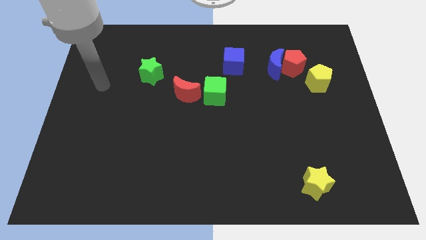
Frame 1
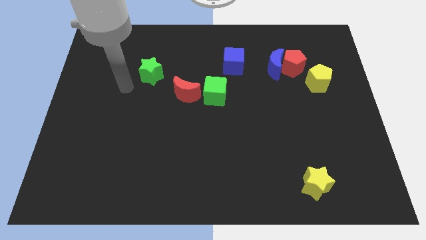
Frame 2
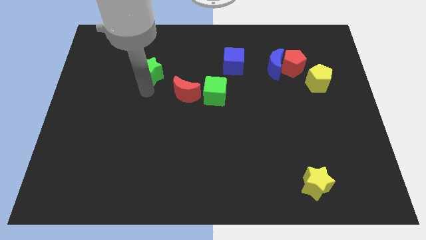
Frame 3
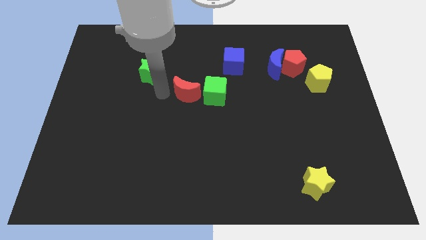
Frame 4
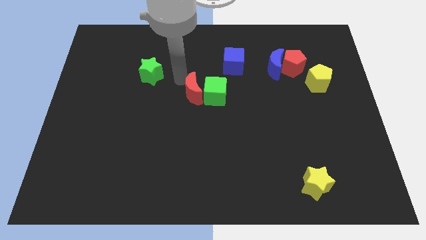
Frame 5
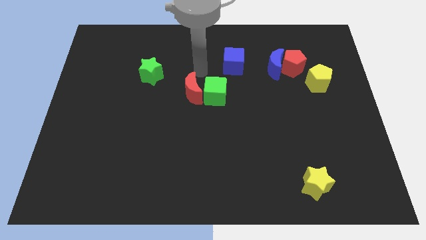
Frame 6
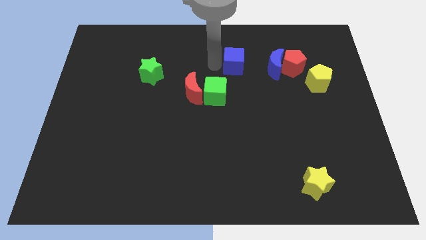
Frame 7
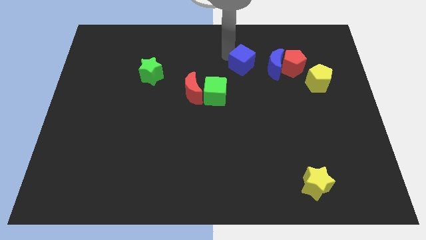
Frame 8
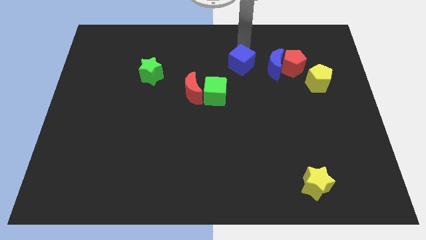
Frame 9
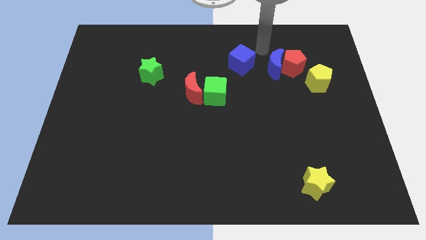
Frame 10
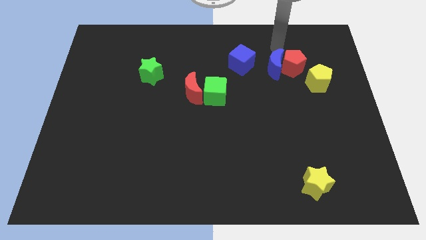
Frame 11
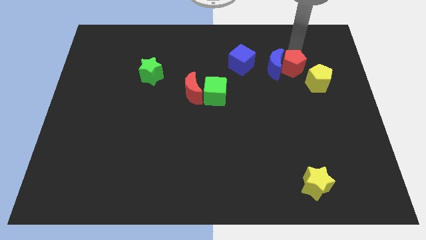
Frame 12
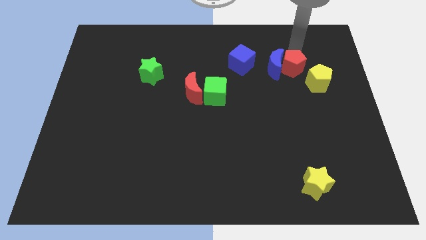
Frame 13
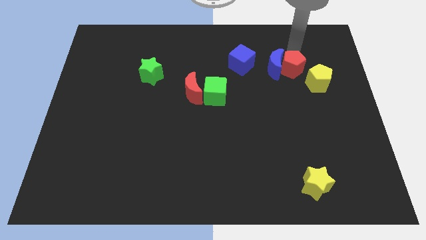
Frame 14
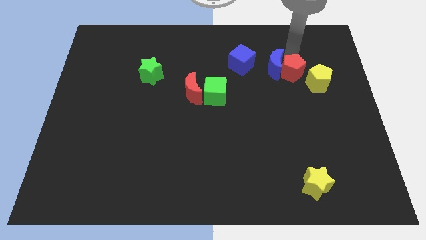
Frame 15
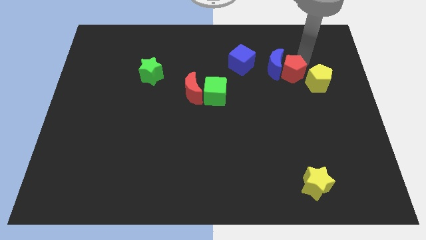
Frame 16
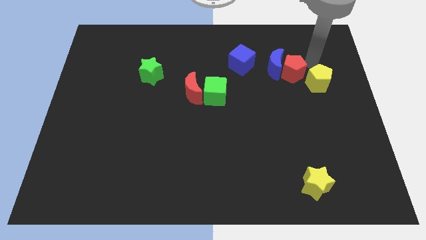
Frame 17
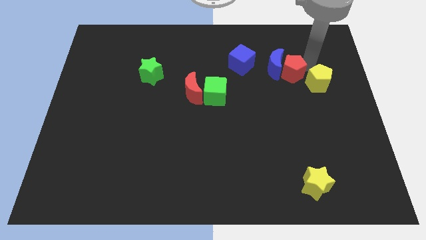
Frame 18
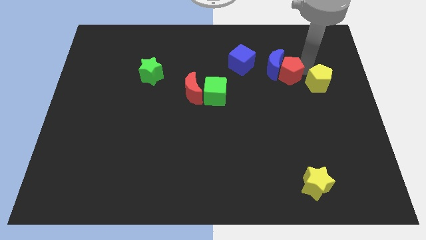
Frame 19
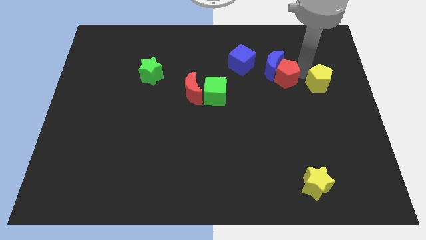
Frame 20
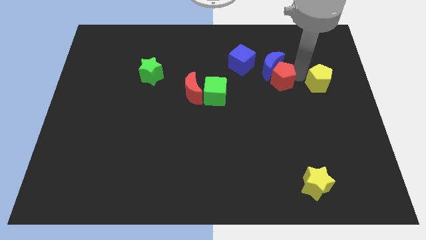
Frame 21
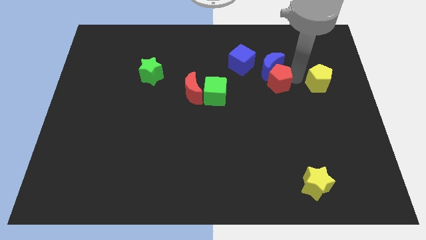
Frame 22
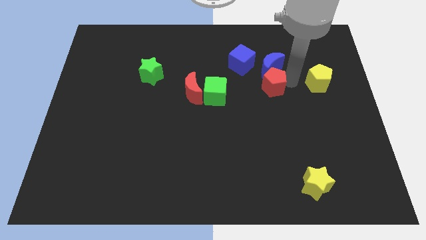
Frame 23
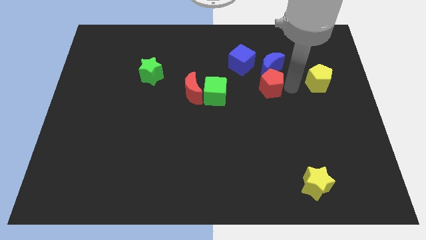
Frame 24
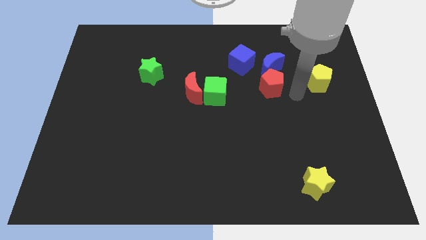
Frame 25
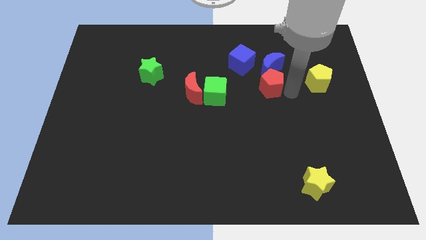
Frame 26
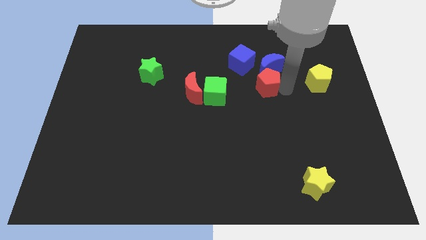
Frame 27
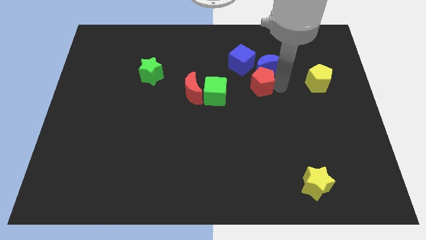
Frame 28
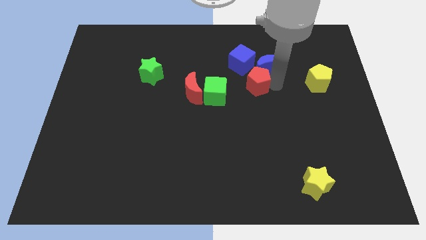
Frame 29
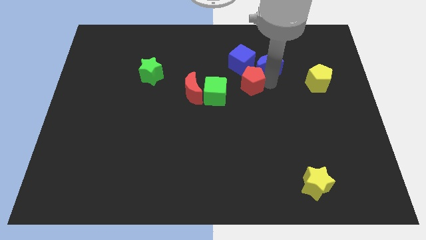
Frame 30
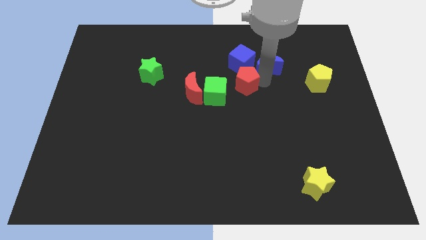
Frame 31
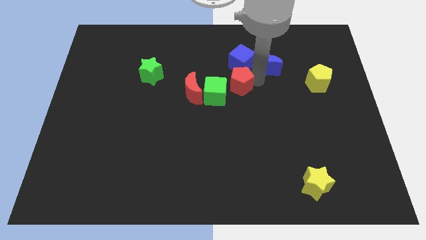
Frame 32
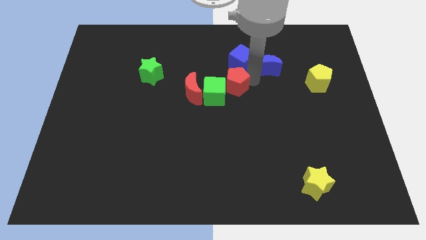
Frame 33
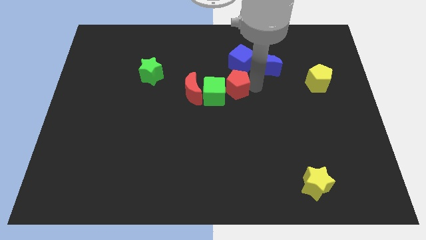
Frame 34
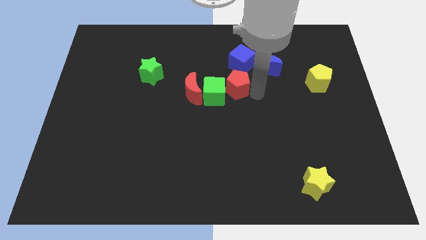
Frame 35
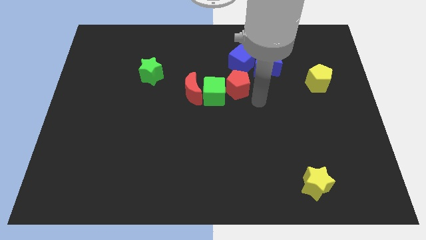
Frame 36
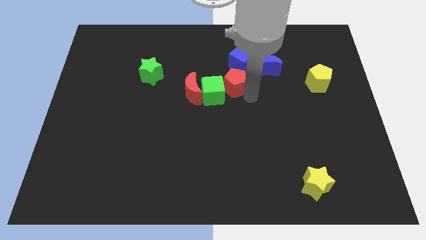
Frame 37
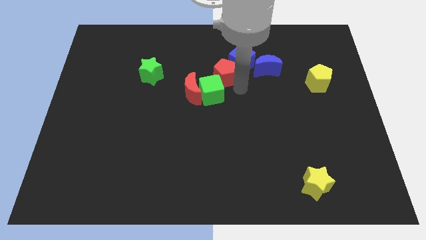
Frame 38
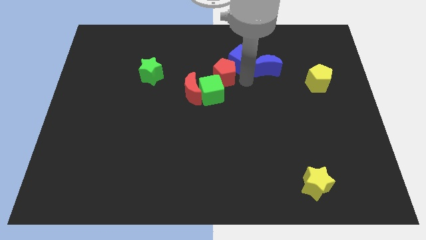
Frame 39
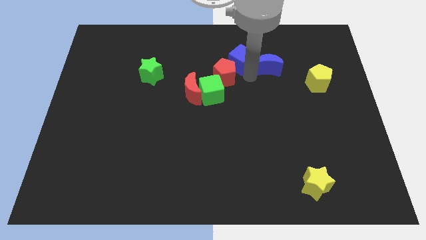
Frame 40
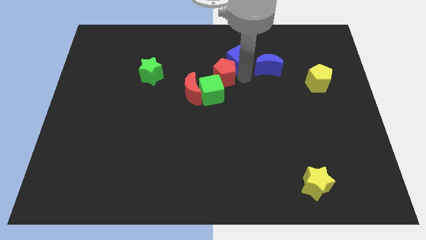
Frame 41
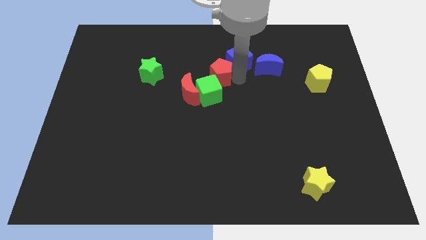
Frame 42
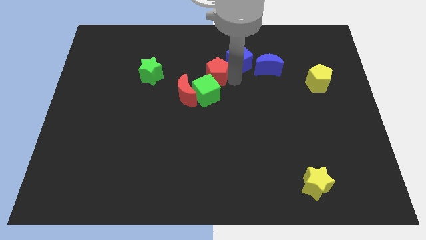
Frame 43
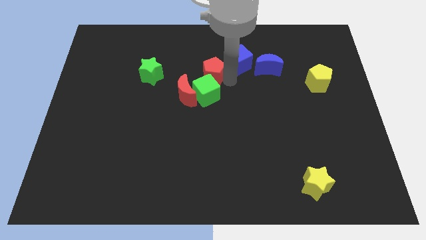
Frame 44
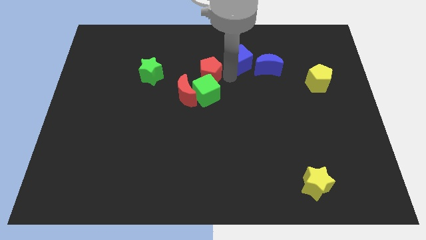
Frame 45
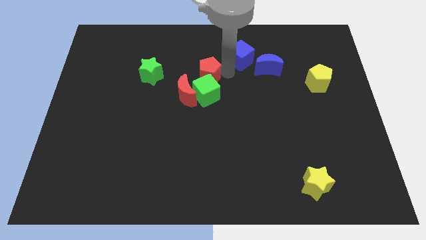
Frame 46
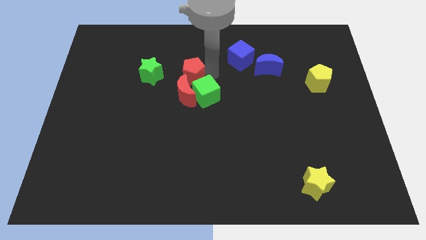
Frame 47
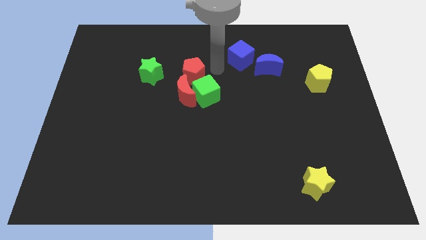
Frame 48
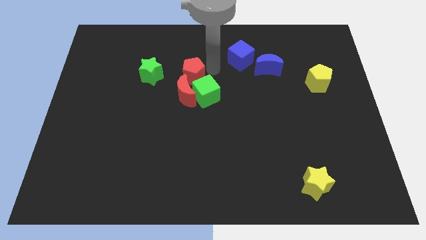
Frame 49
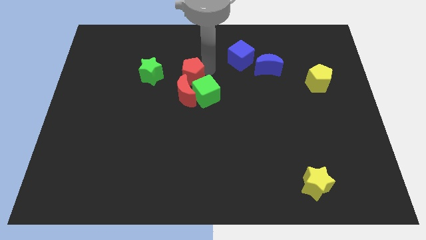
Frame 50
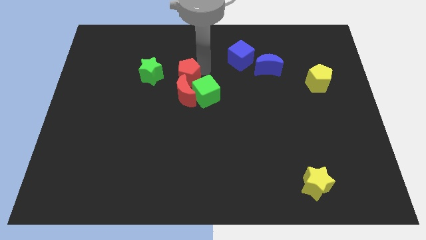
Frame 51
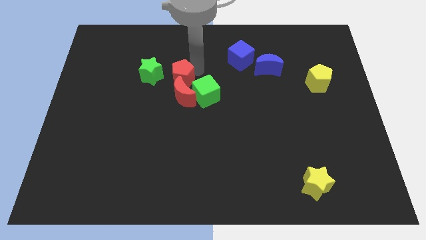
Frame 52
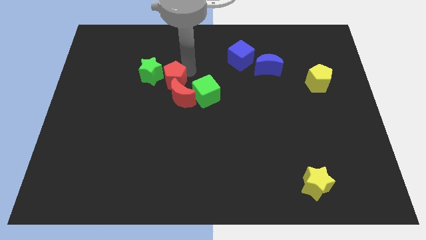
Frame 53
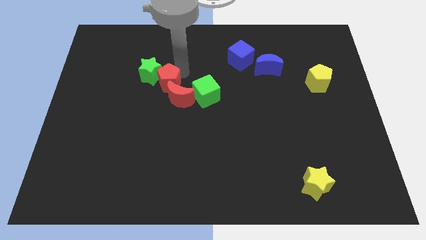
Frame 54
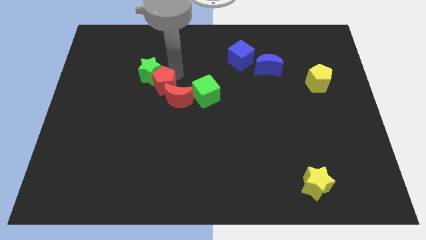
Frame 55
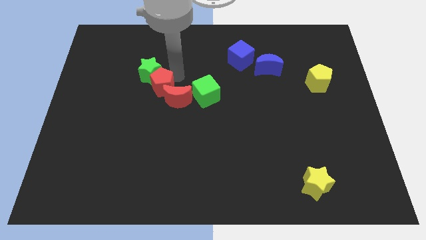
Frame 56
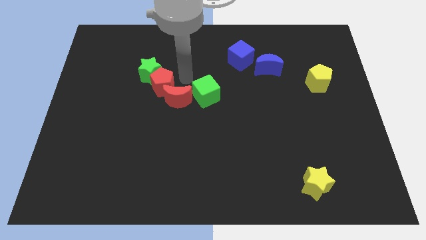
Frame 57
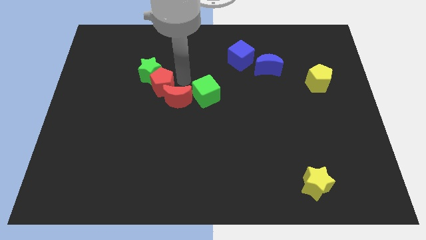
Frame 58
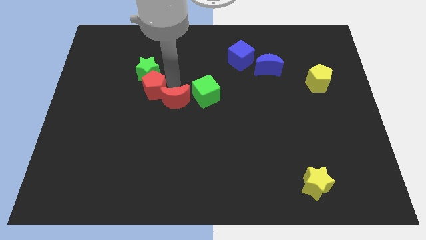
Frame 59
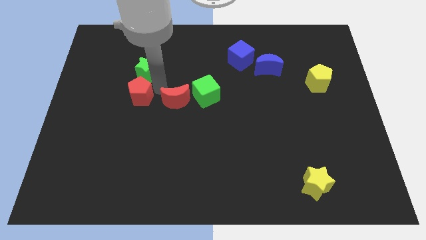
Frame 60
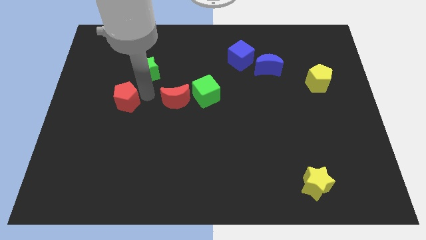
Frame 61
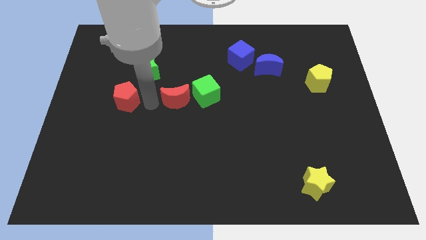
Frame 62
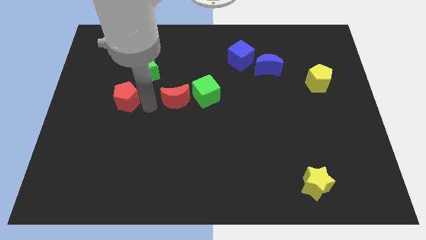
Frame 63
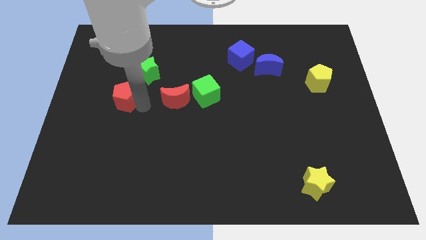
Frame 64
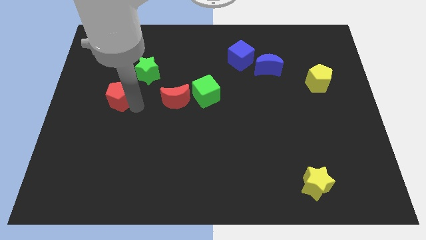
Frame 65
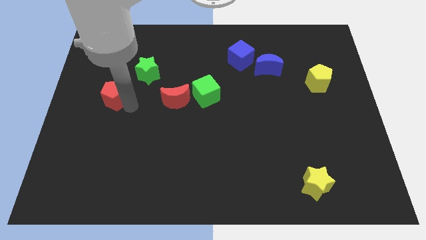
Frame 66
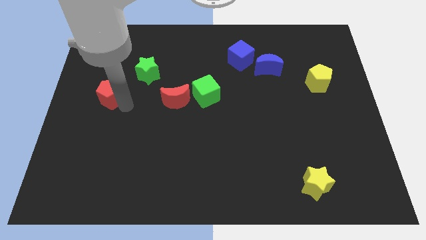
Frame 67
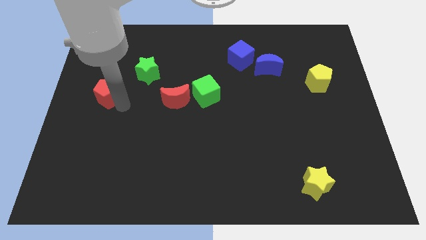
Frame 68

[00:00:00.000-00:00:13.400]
move the red pentagon to the left side of the board
